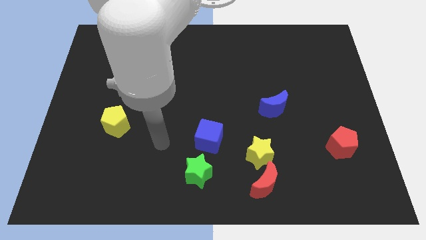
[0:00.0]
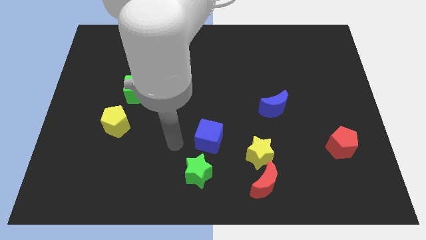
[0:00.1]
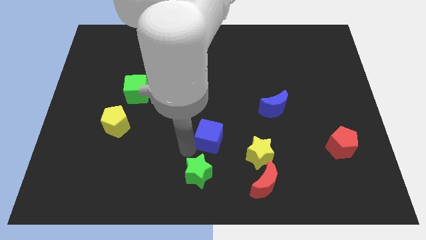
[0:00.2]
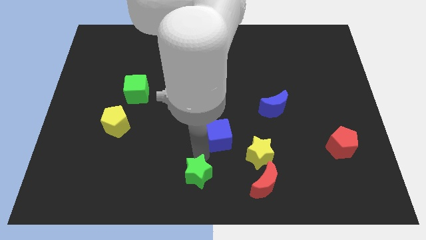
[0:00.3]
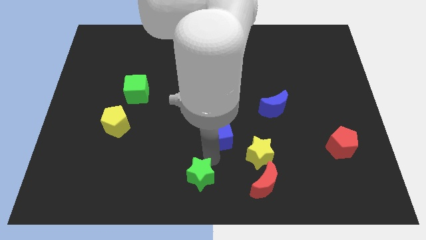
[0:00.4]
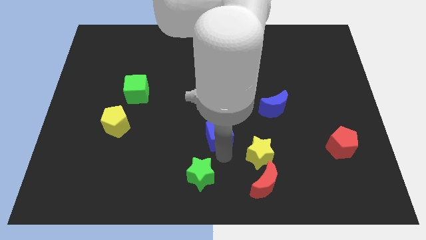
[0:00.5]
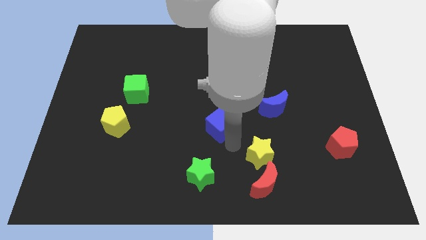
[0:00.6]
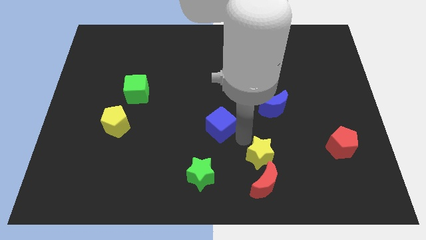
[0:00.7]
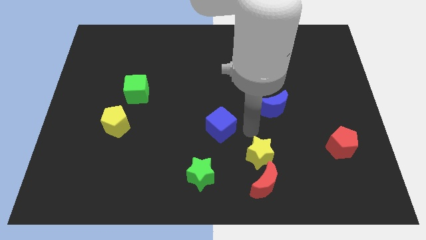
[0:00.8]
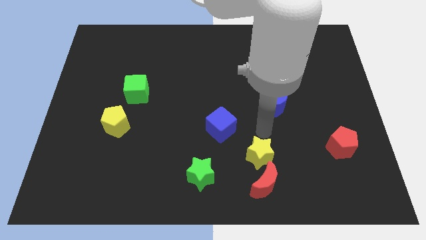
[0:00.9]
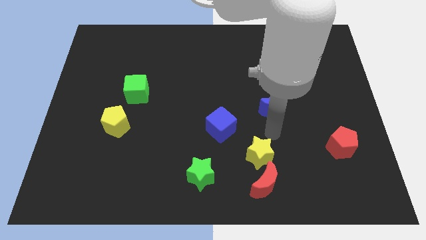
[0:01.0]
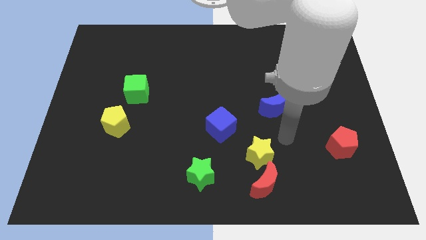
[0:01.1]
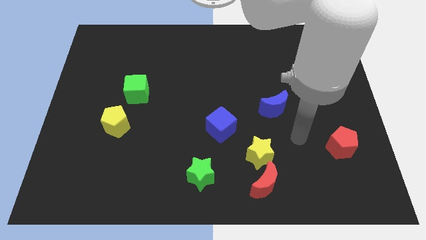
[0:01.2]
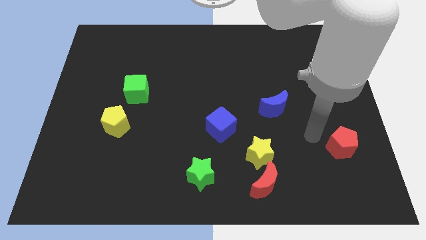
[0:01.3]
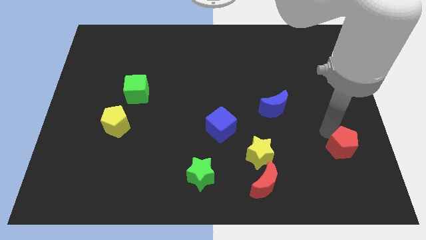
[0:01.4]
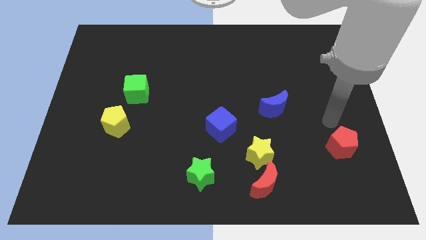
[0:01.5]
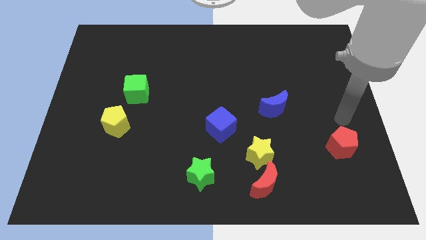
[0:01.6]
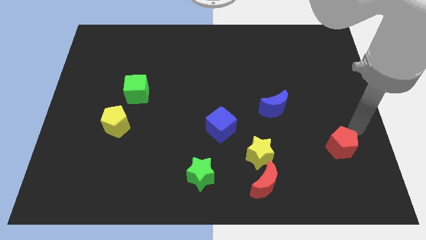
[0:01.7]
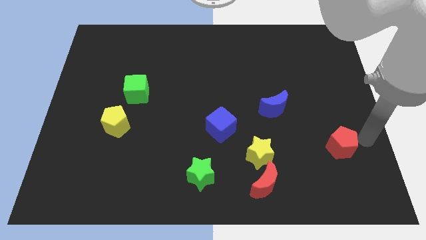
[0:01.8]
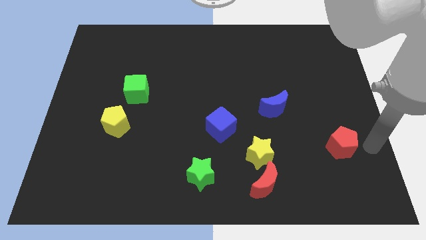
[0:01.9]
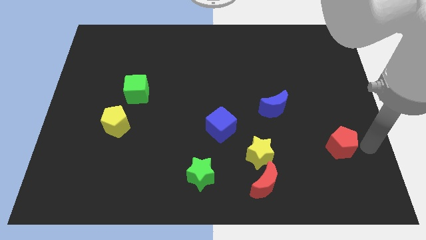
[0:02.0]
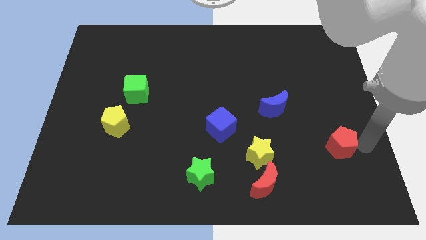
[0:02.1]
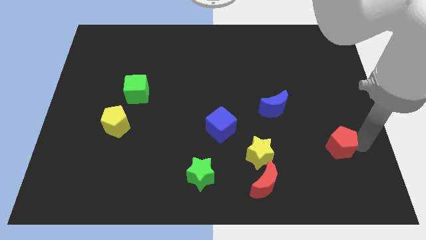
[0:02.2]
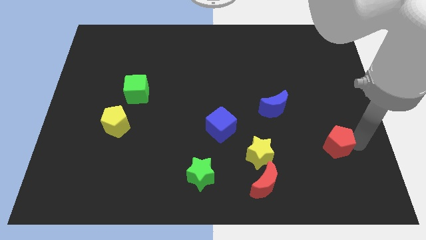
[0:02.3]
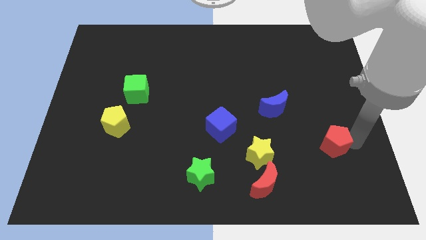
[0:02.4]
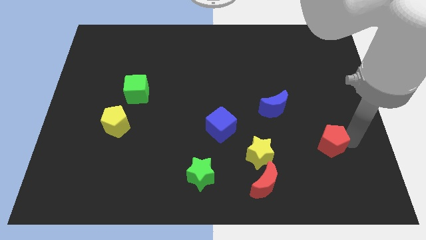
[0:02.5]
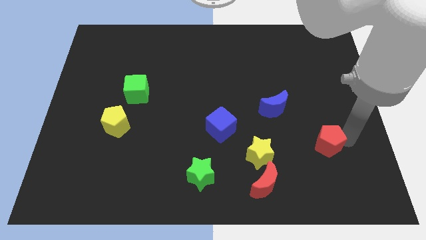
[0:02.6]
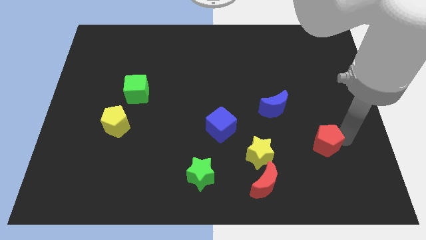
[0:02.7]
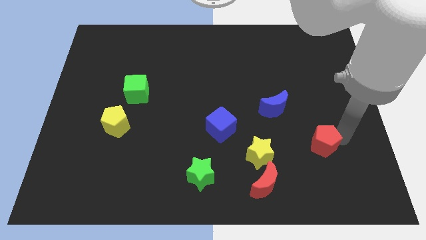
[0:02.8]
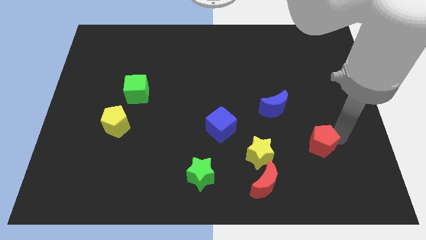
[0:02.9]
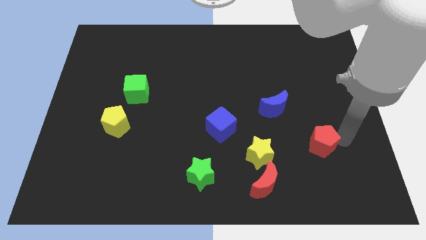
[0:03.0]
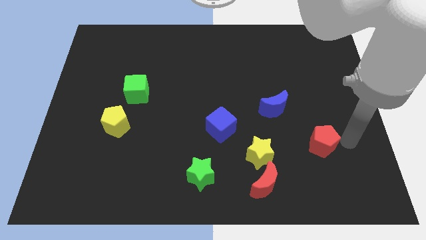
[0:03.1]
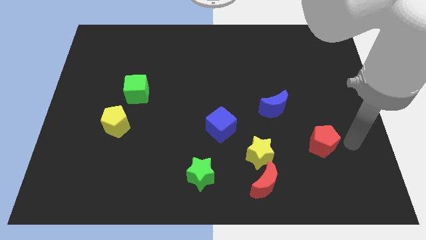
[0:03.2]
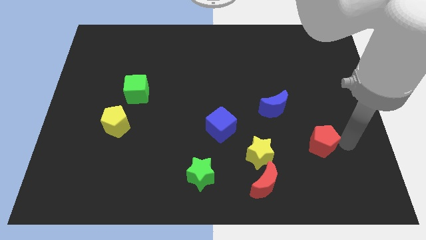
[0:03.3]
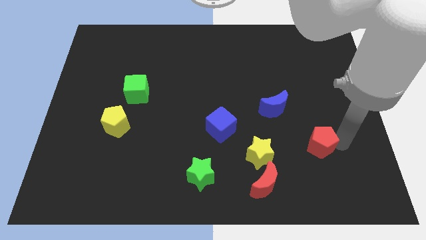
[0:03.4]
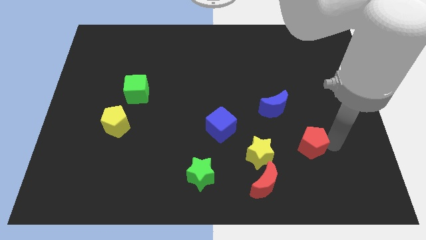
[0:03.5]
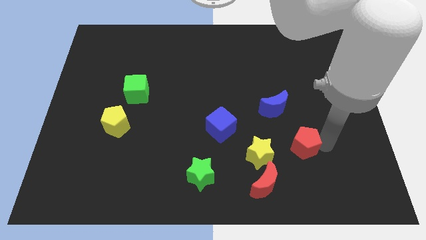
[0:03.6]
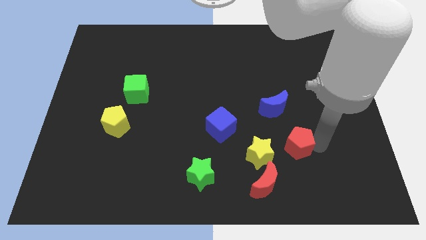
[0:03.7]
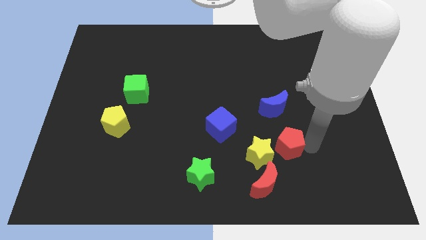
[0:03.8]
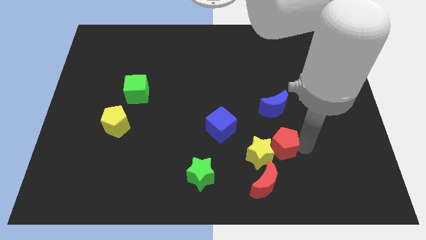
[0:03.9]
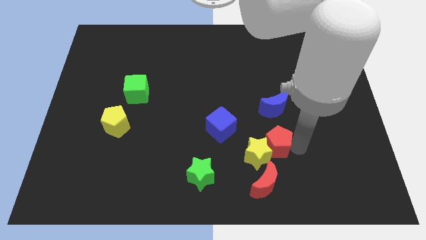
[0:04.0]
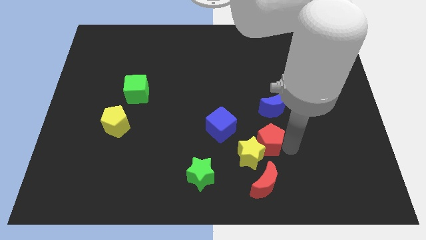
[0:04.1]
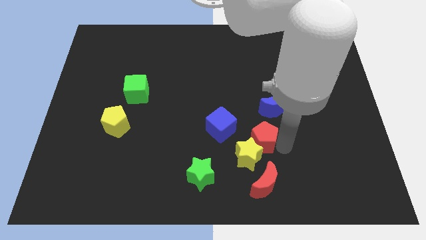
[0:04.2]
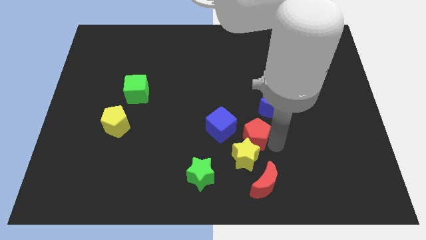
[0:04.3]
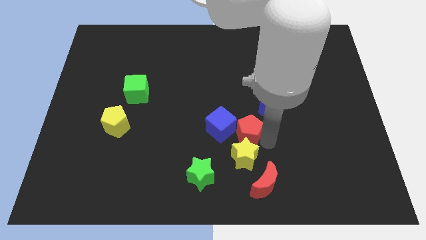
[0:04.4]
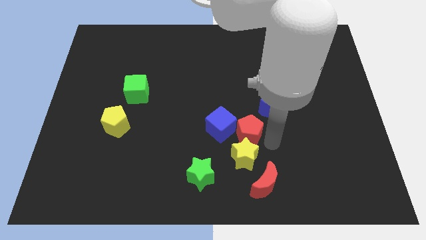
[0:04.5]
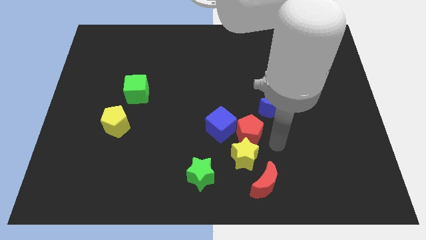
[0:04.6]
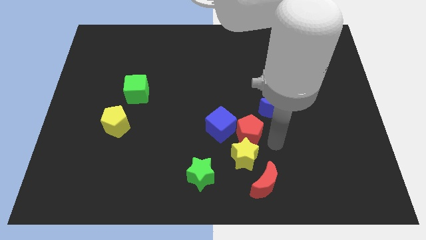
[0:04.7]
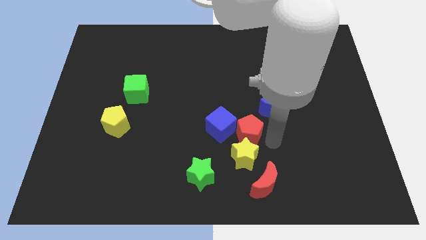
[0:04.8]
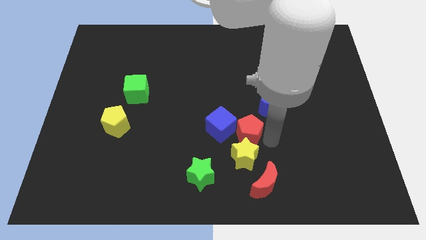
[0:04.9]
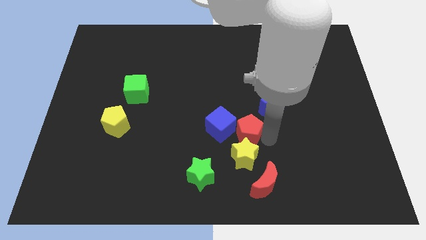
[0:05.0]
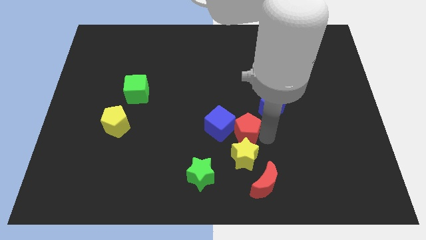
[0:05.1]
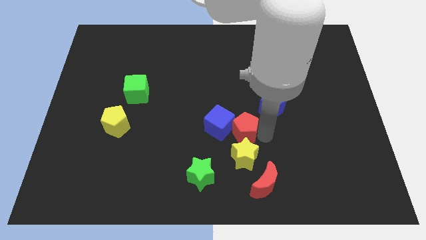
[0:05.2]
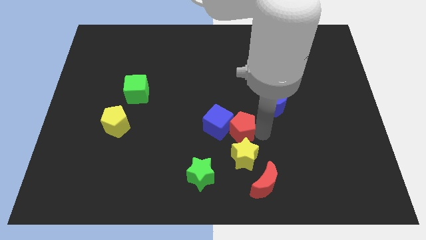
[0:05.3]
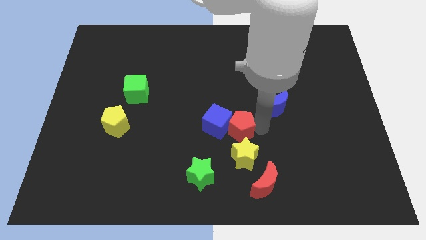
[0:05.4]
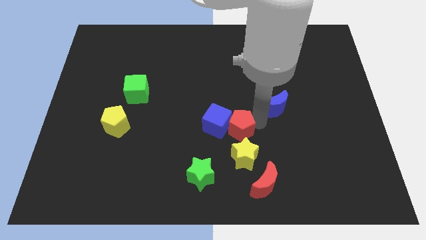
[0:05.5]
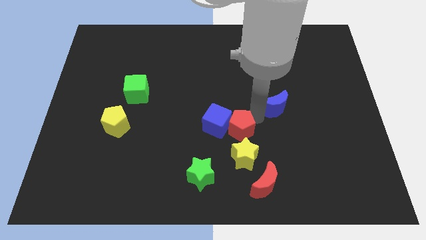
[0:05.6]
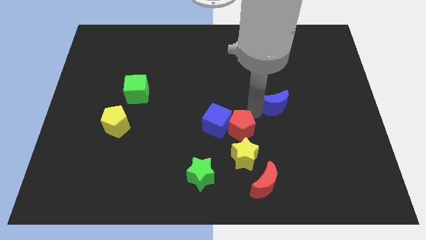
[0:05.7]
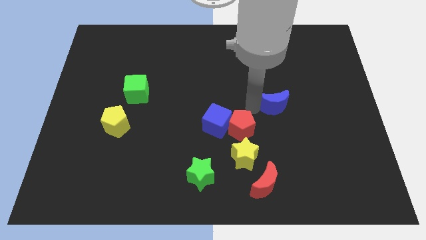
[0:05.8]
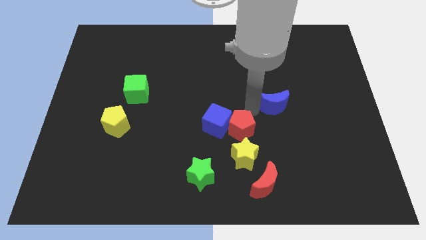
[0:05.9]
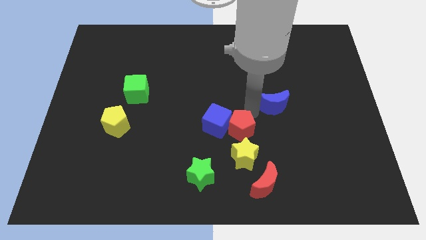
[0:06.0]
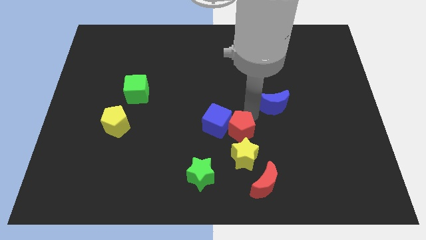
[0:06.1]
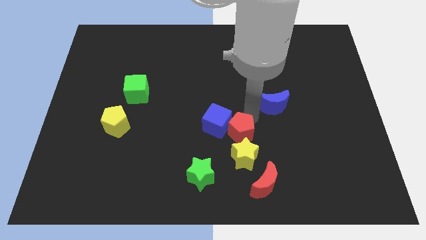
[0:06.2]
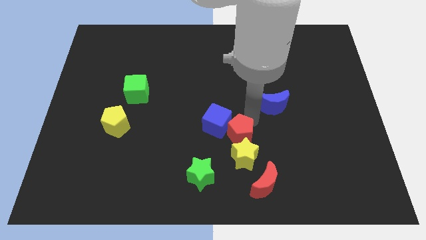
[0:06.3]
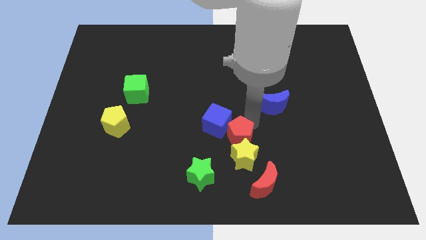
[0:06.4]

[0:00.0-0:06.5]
slide the red pentagon to the top right of the green star

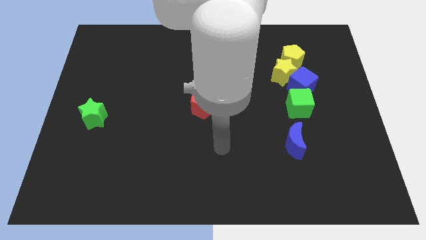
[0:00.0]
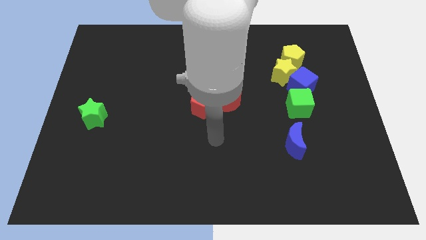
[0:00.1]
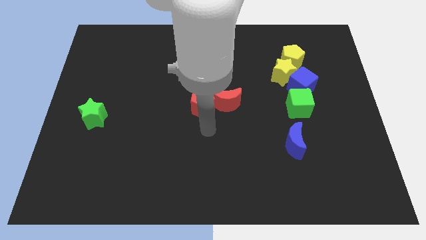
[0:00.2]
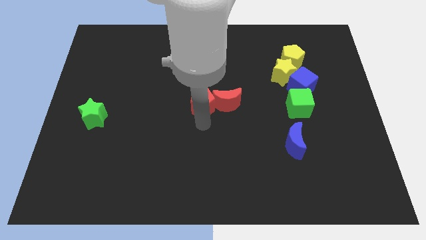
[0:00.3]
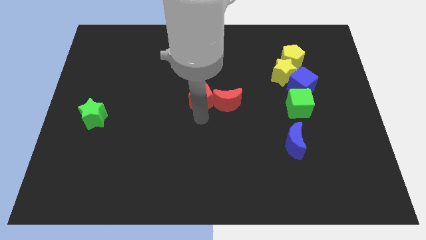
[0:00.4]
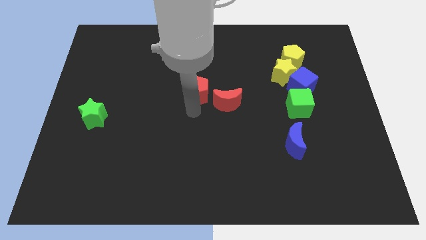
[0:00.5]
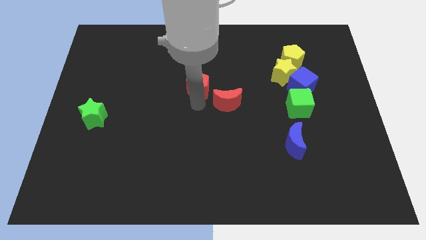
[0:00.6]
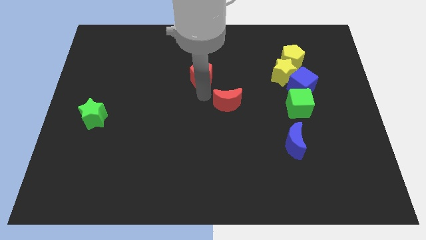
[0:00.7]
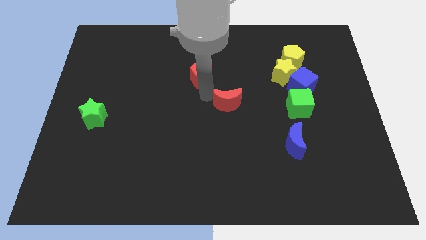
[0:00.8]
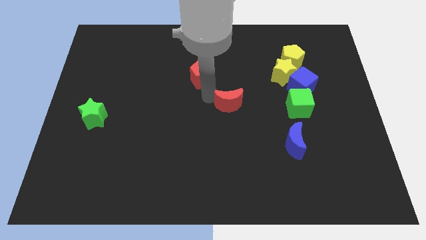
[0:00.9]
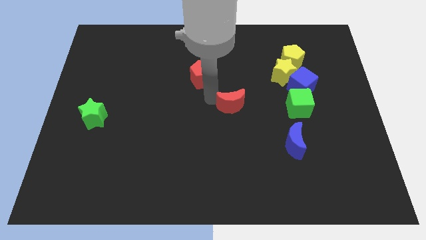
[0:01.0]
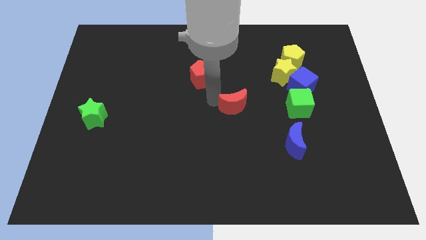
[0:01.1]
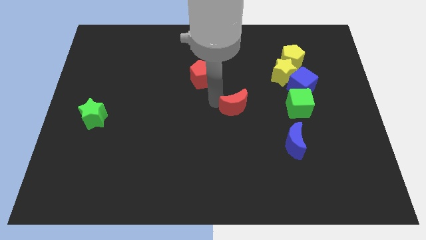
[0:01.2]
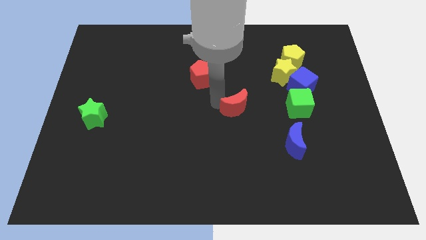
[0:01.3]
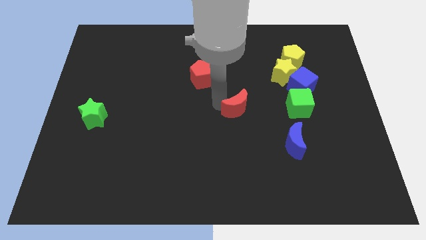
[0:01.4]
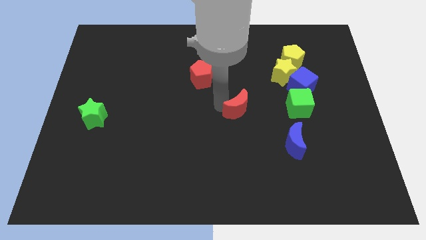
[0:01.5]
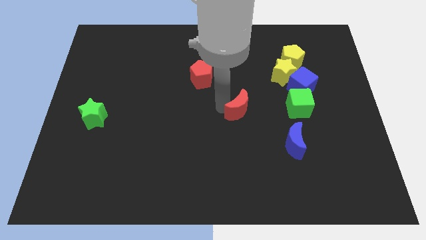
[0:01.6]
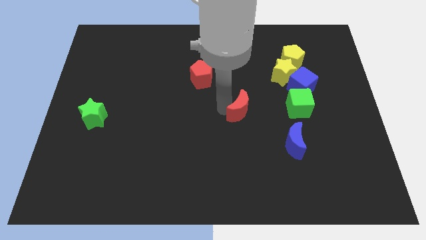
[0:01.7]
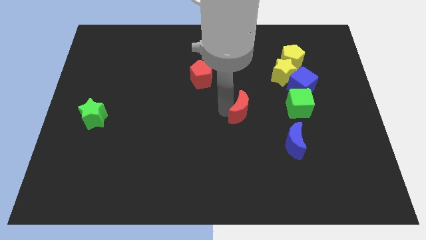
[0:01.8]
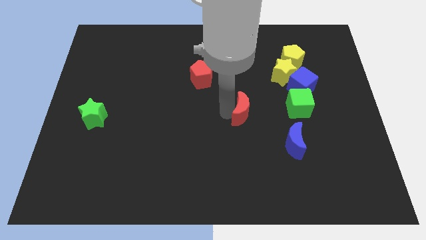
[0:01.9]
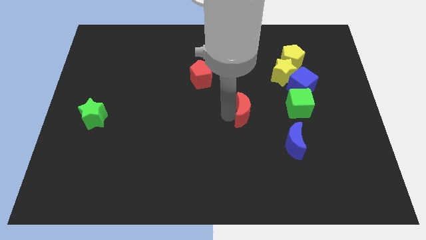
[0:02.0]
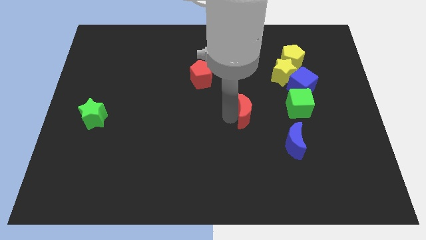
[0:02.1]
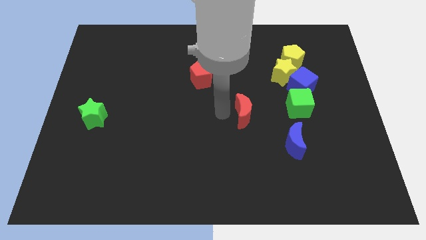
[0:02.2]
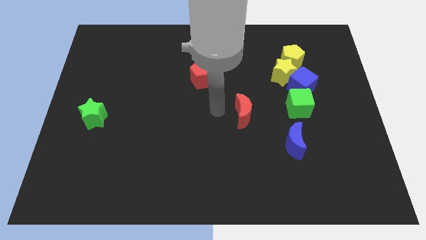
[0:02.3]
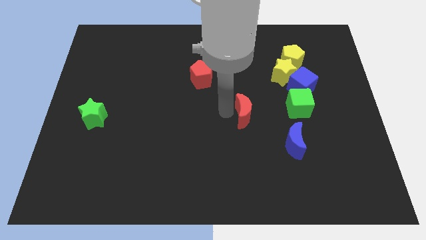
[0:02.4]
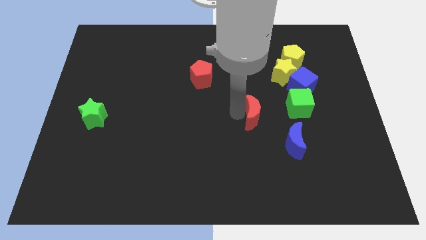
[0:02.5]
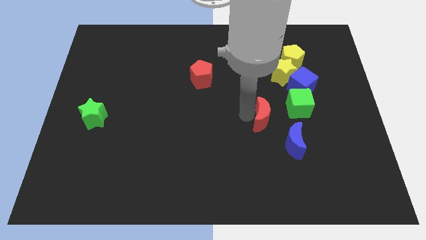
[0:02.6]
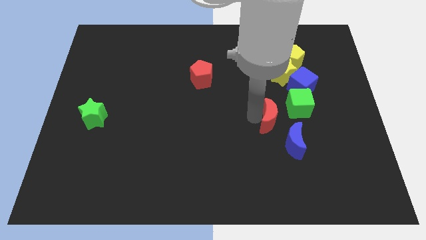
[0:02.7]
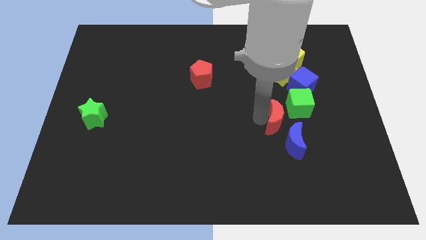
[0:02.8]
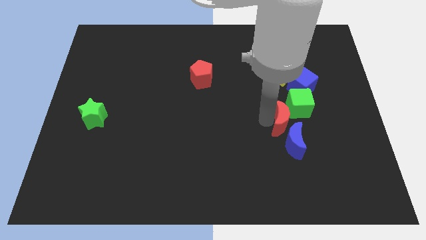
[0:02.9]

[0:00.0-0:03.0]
move the red moon to the bottom side of the green cube
